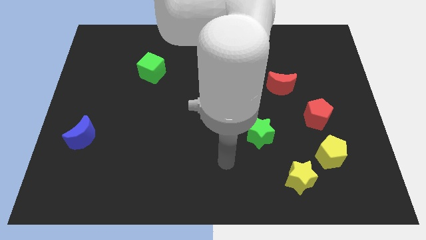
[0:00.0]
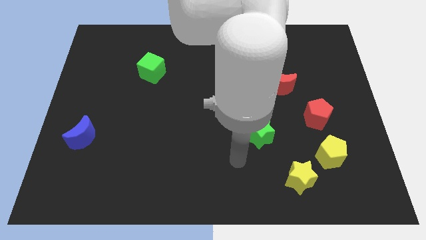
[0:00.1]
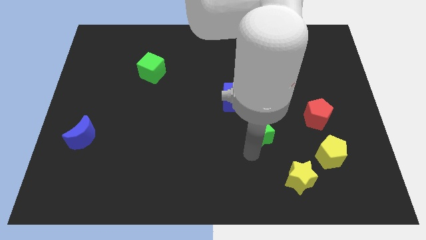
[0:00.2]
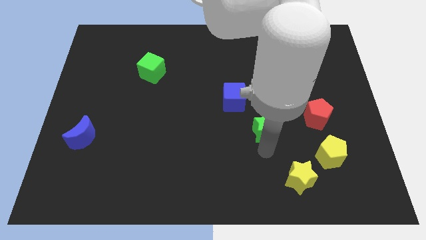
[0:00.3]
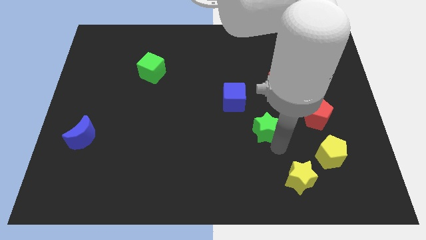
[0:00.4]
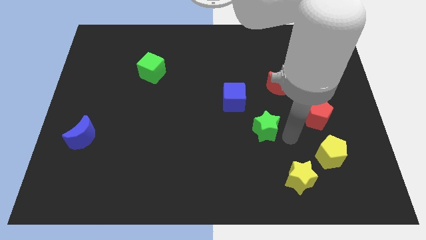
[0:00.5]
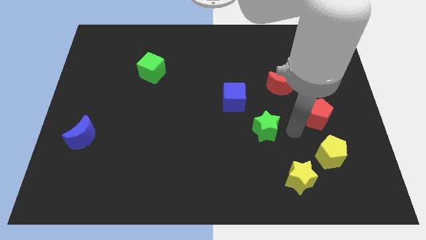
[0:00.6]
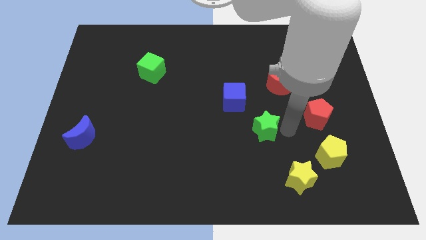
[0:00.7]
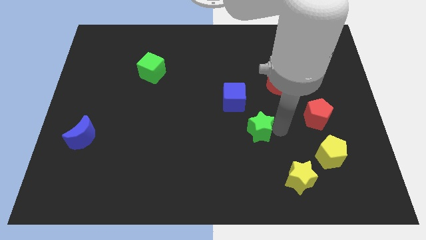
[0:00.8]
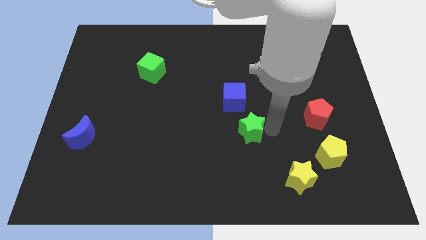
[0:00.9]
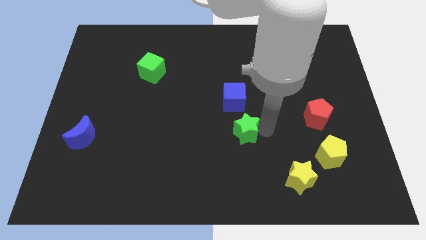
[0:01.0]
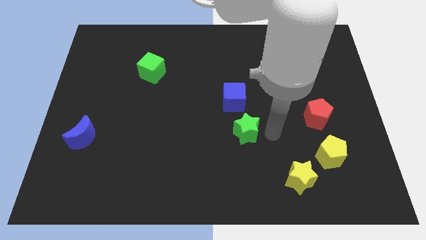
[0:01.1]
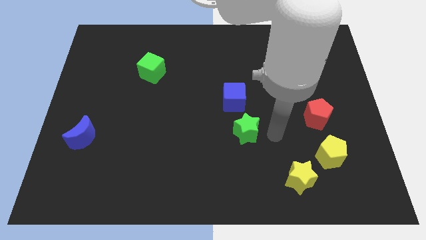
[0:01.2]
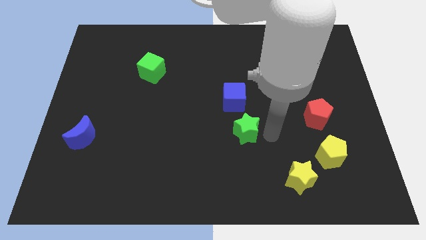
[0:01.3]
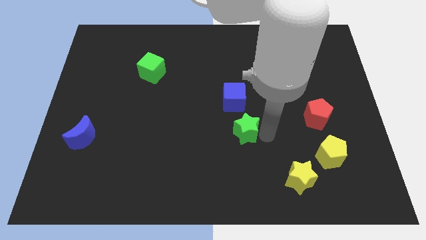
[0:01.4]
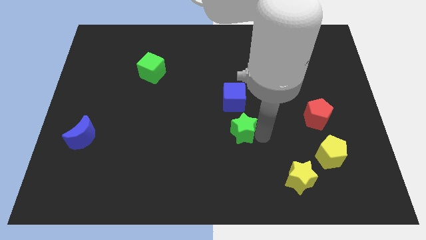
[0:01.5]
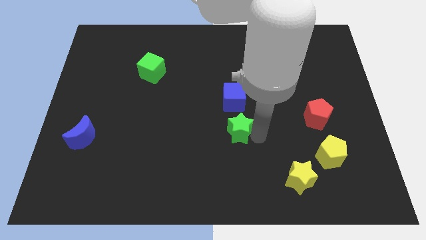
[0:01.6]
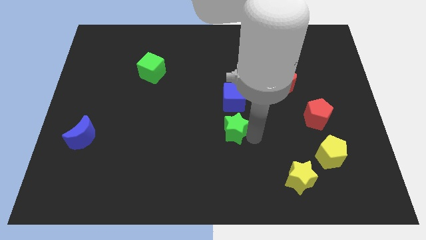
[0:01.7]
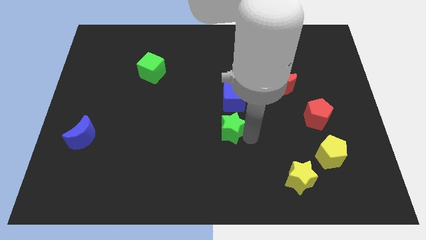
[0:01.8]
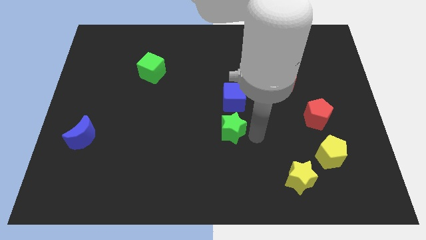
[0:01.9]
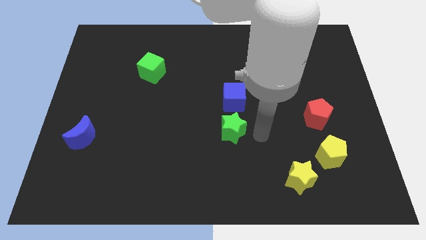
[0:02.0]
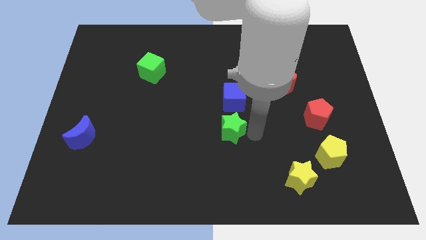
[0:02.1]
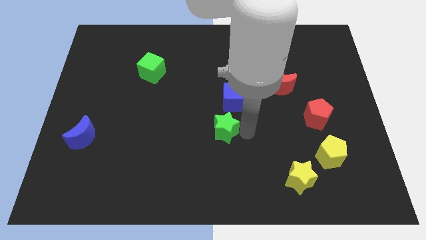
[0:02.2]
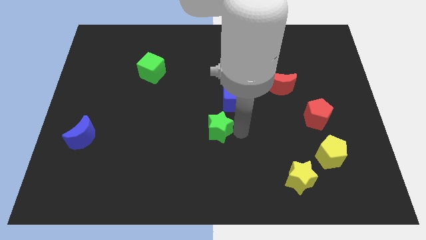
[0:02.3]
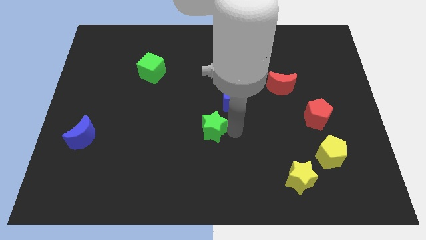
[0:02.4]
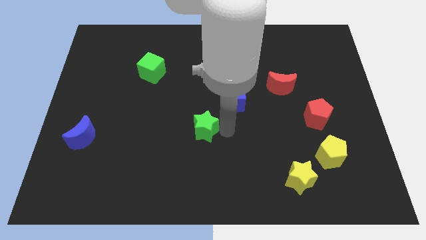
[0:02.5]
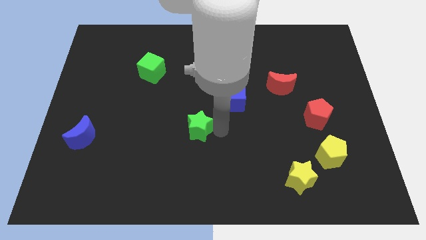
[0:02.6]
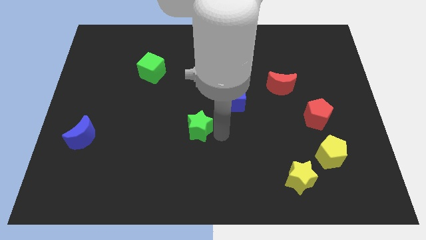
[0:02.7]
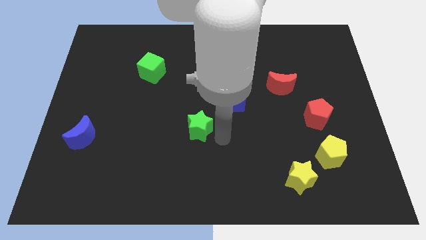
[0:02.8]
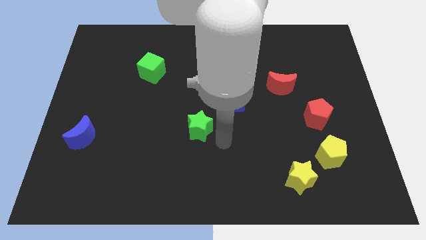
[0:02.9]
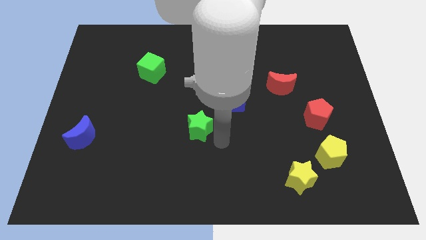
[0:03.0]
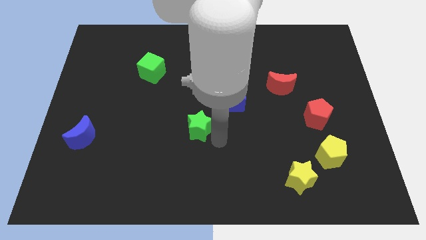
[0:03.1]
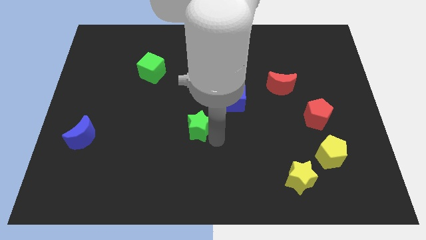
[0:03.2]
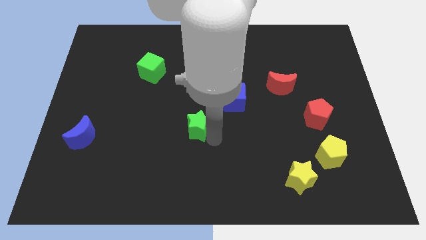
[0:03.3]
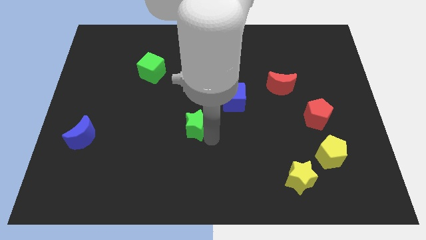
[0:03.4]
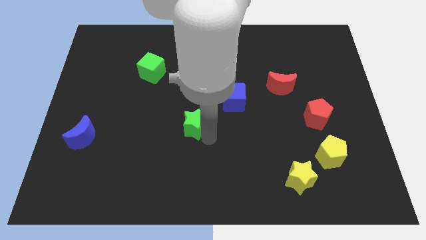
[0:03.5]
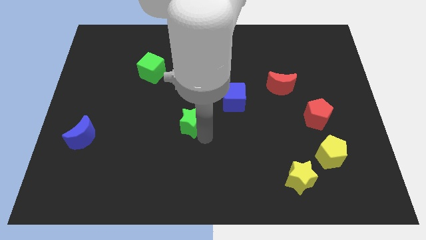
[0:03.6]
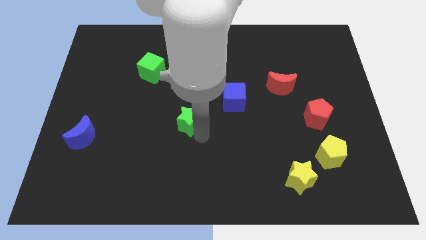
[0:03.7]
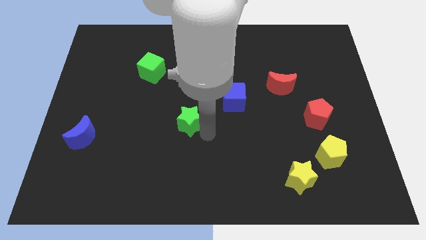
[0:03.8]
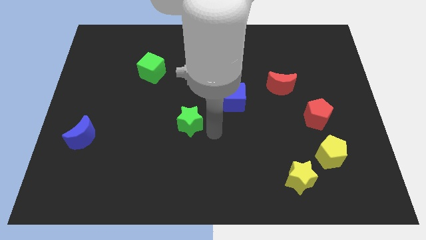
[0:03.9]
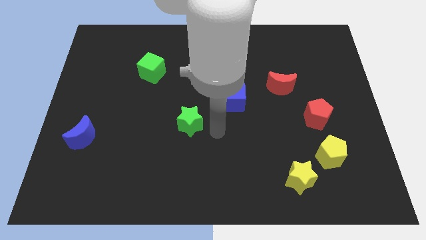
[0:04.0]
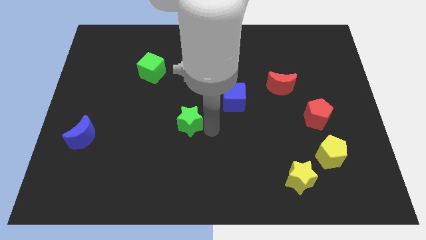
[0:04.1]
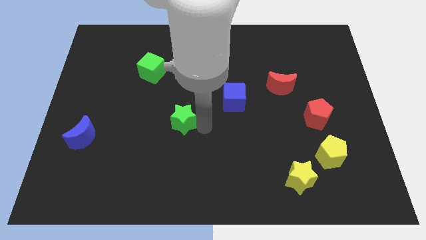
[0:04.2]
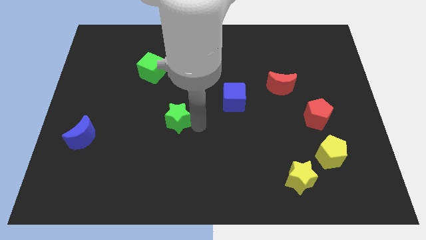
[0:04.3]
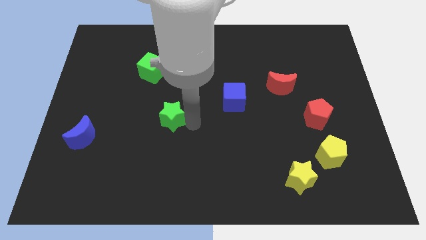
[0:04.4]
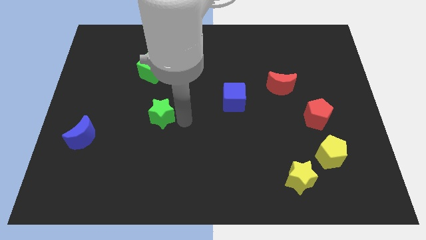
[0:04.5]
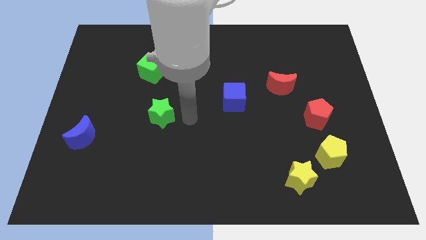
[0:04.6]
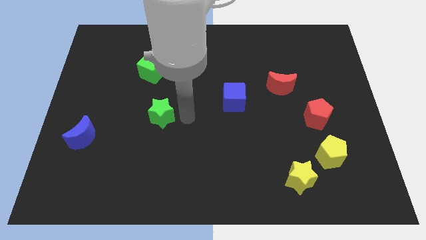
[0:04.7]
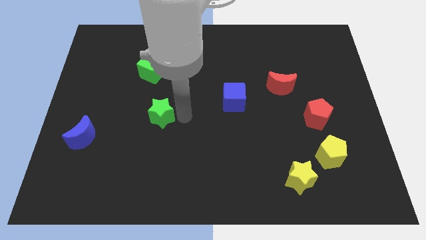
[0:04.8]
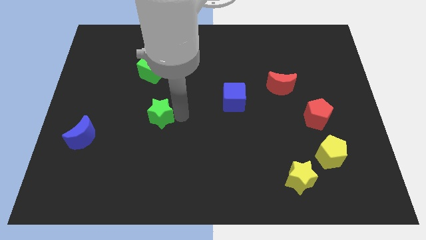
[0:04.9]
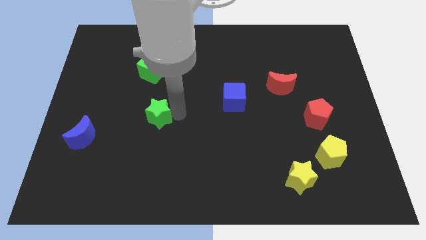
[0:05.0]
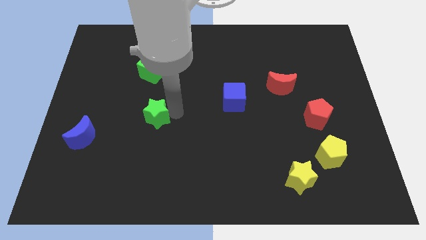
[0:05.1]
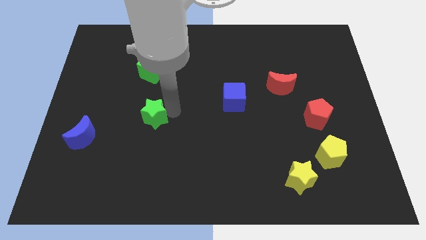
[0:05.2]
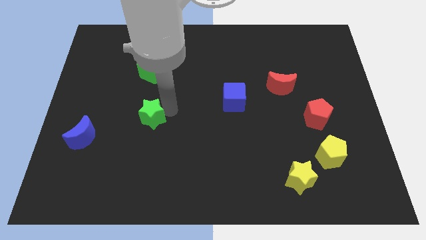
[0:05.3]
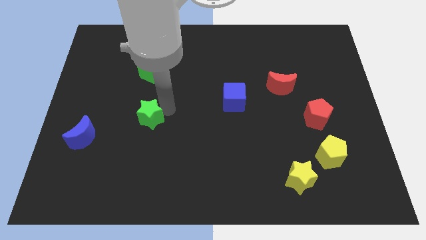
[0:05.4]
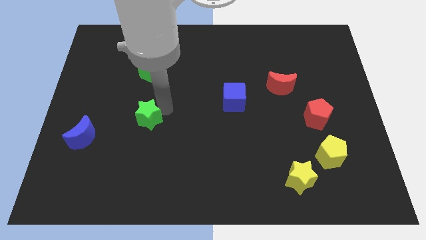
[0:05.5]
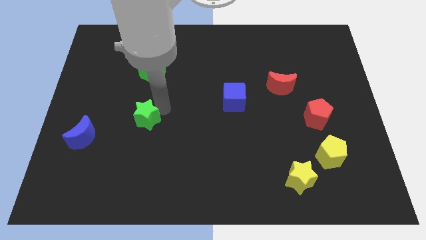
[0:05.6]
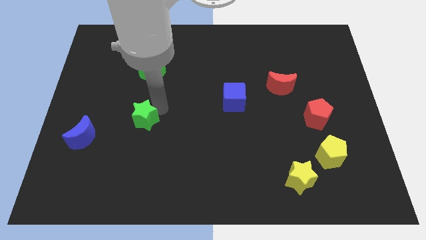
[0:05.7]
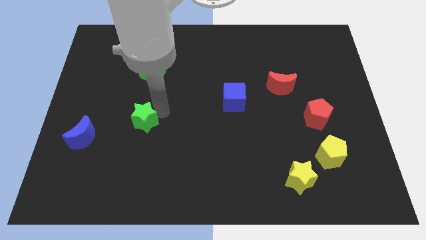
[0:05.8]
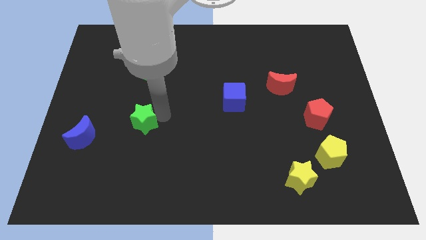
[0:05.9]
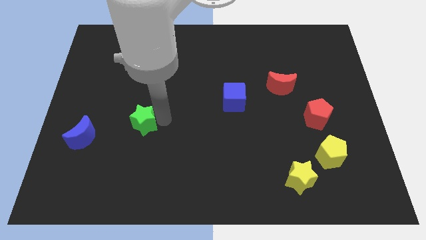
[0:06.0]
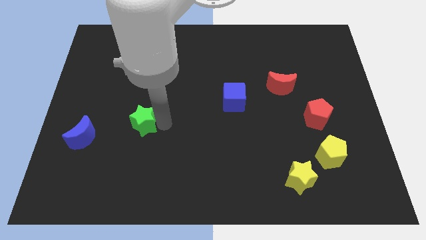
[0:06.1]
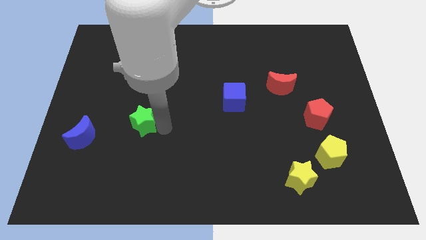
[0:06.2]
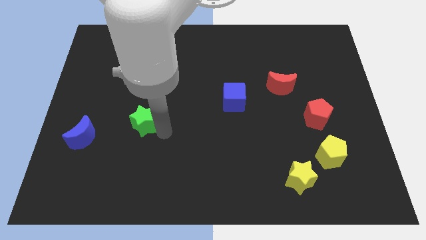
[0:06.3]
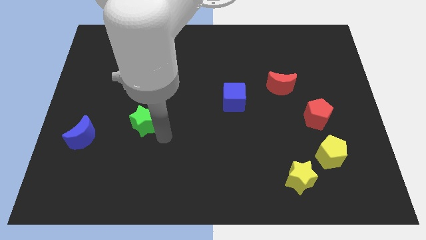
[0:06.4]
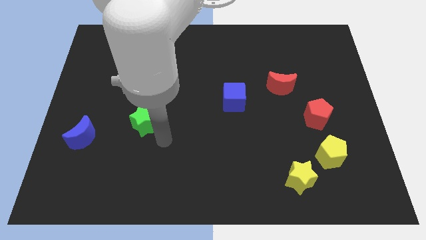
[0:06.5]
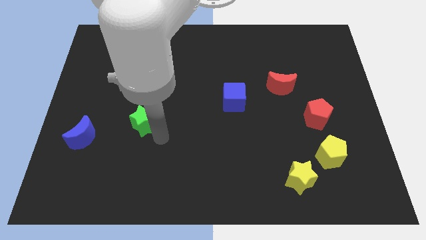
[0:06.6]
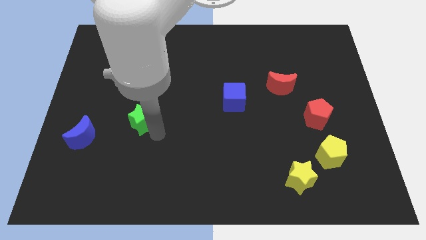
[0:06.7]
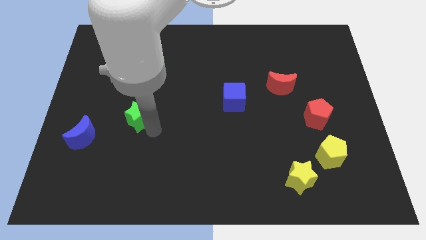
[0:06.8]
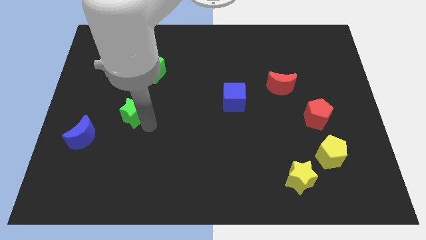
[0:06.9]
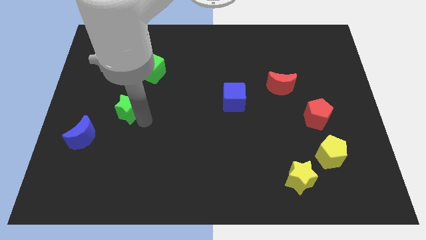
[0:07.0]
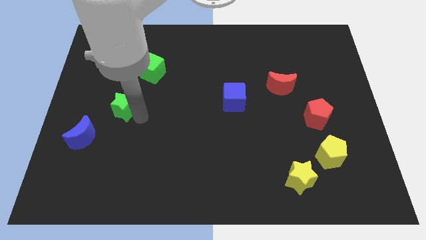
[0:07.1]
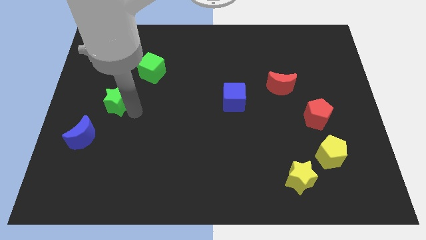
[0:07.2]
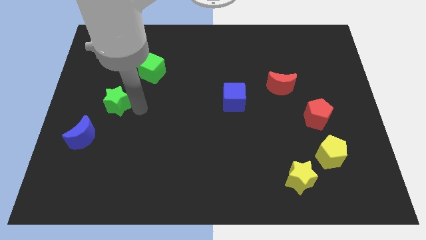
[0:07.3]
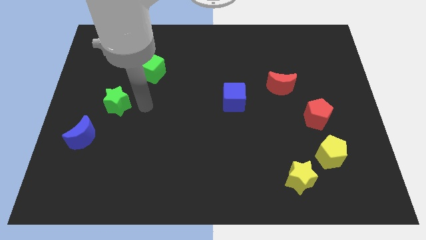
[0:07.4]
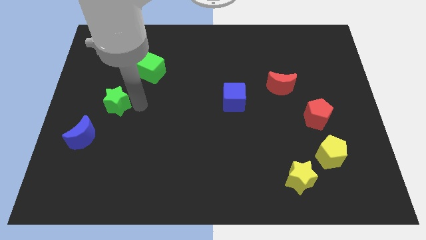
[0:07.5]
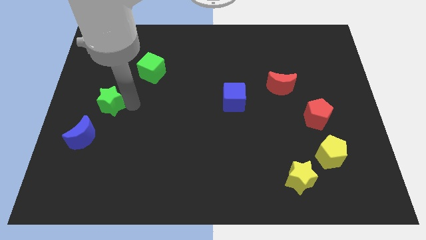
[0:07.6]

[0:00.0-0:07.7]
move the green star to the top of the blue moon

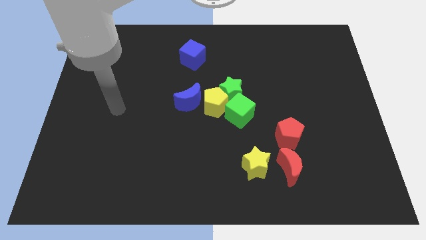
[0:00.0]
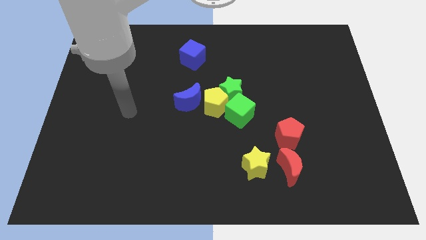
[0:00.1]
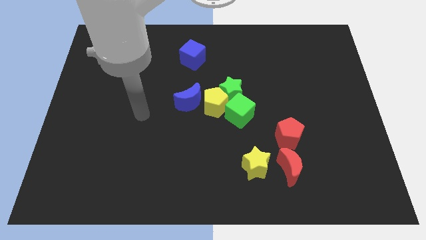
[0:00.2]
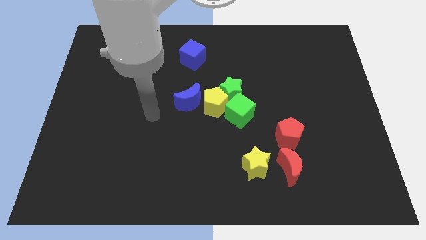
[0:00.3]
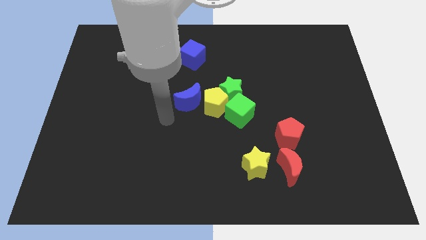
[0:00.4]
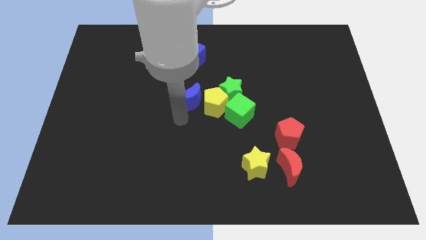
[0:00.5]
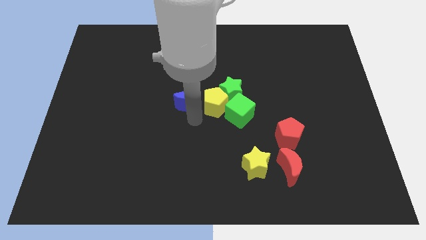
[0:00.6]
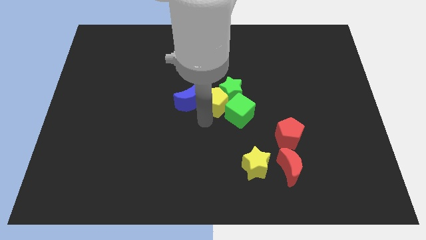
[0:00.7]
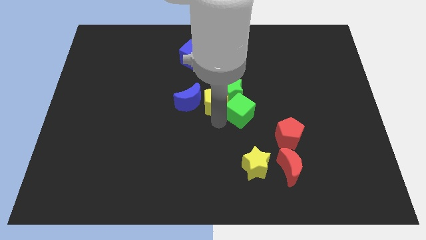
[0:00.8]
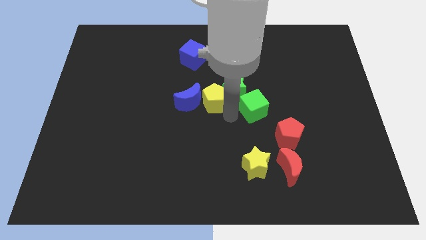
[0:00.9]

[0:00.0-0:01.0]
push the green star to the left side of the green cube
